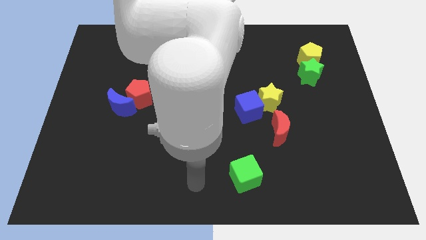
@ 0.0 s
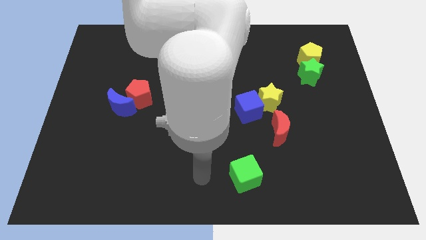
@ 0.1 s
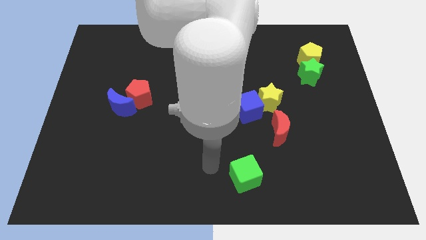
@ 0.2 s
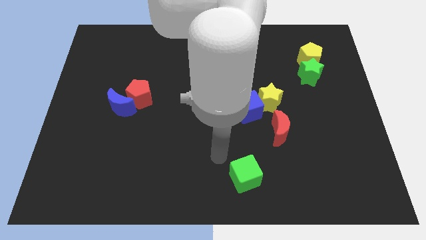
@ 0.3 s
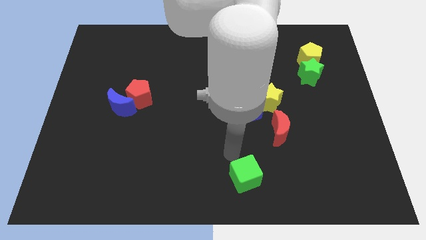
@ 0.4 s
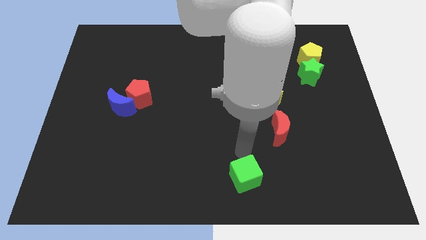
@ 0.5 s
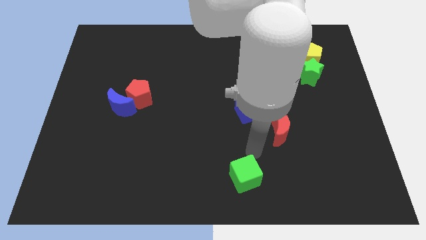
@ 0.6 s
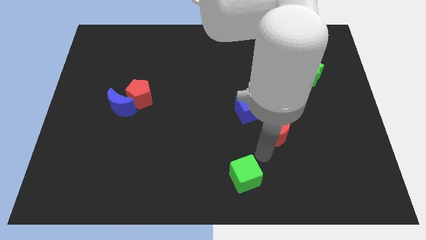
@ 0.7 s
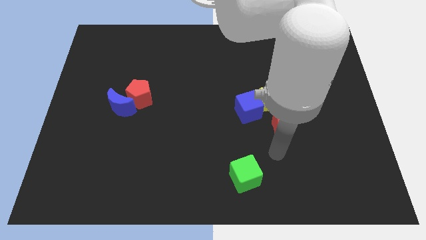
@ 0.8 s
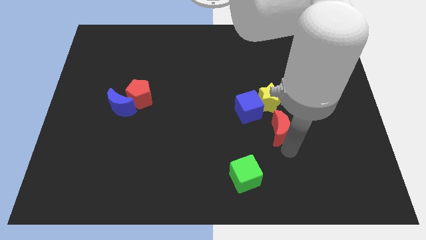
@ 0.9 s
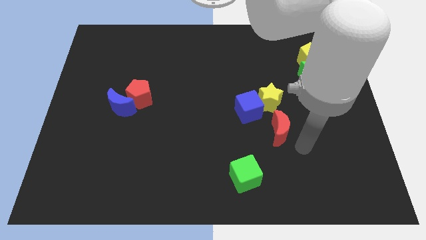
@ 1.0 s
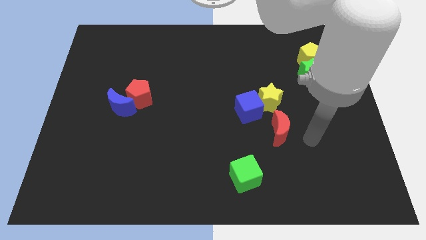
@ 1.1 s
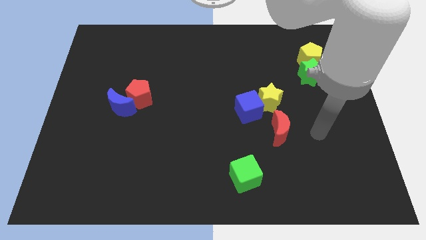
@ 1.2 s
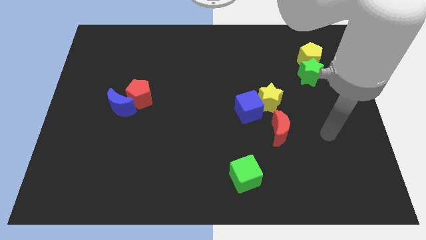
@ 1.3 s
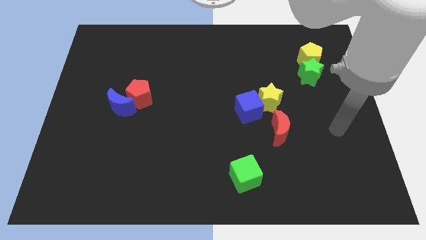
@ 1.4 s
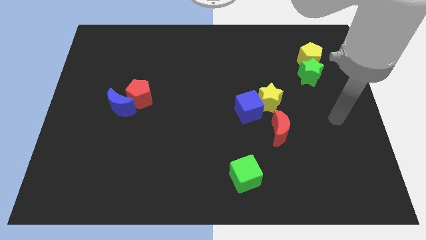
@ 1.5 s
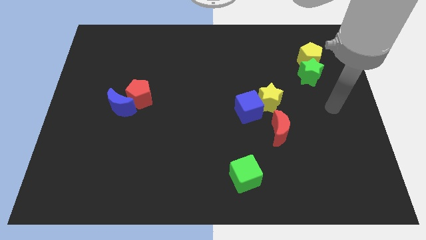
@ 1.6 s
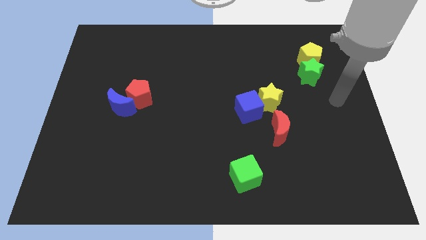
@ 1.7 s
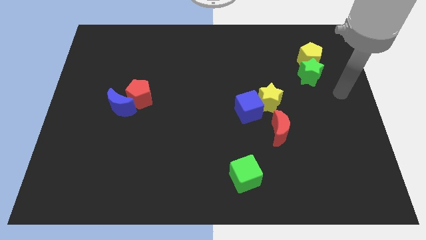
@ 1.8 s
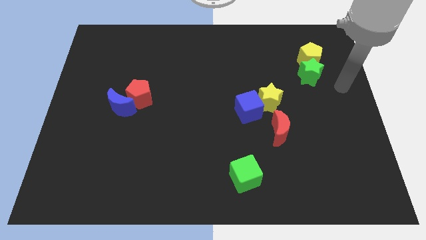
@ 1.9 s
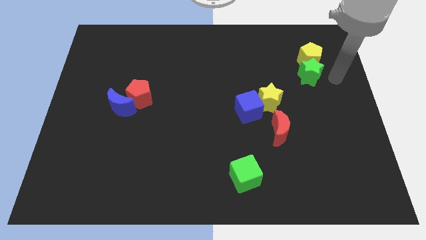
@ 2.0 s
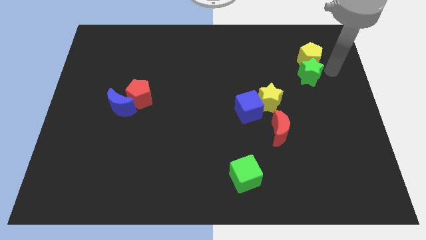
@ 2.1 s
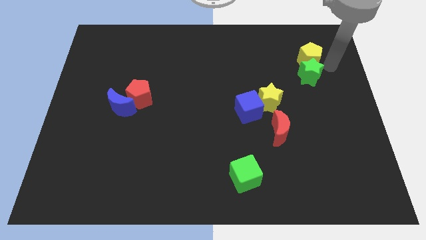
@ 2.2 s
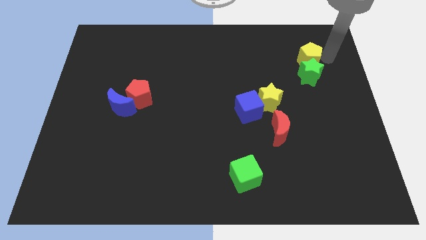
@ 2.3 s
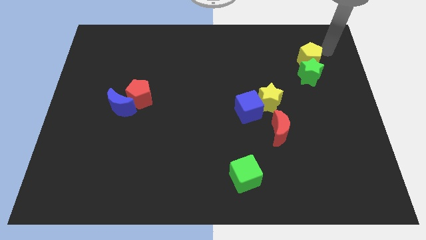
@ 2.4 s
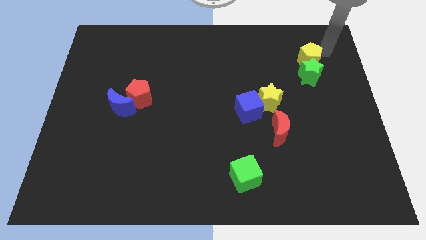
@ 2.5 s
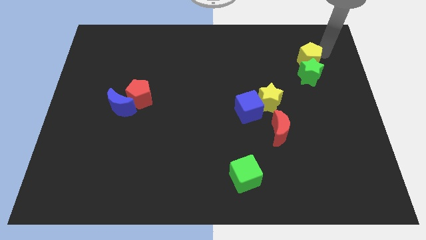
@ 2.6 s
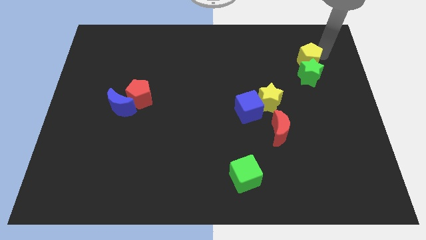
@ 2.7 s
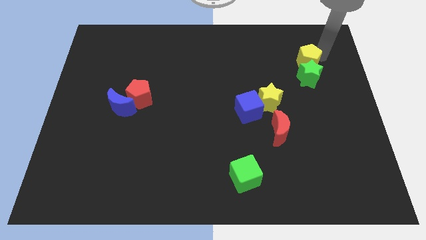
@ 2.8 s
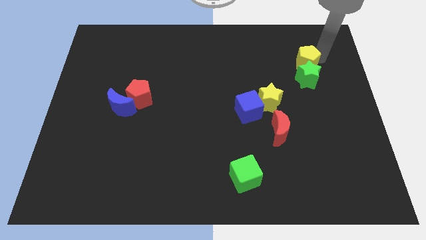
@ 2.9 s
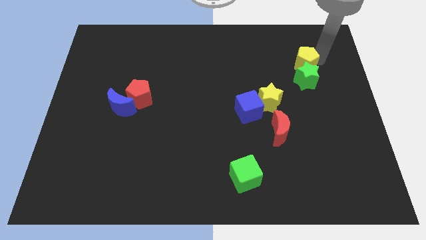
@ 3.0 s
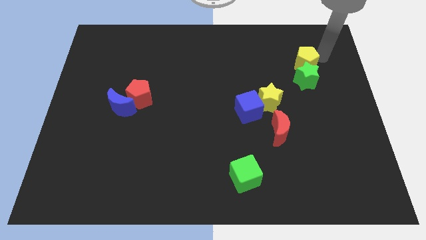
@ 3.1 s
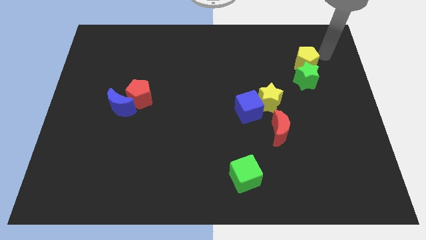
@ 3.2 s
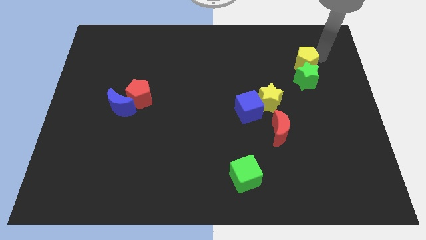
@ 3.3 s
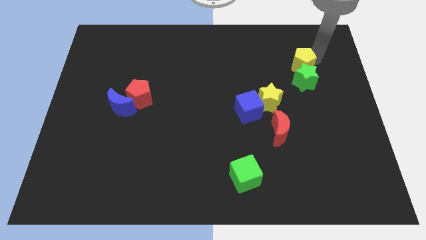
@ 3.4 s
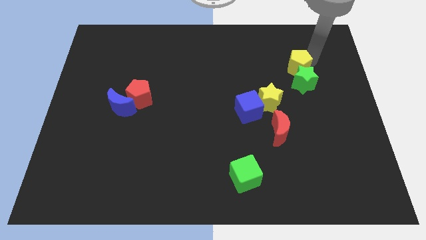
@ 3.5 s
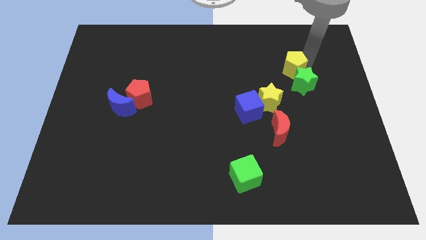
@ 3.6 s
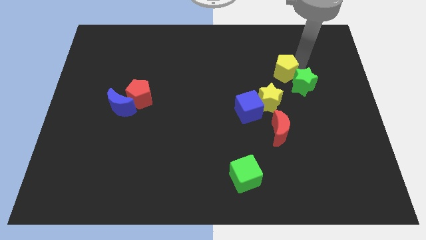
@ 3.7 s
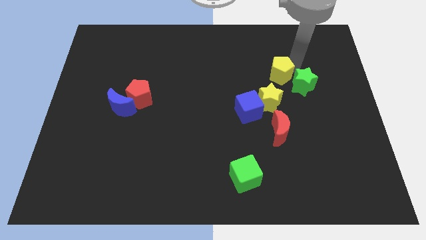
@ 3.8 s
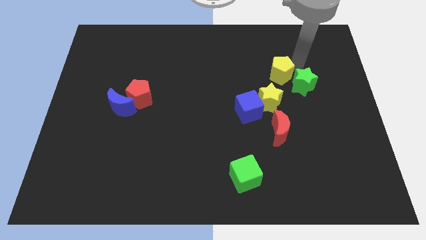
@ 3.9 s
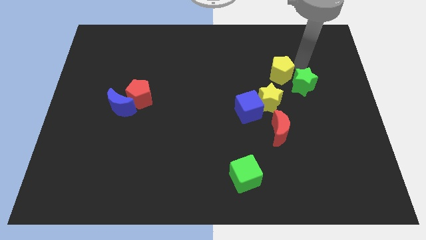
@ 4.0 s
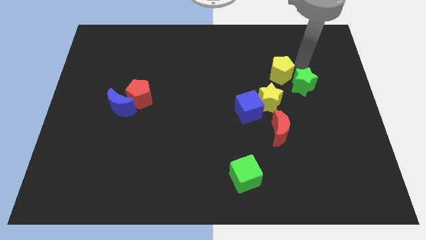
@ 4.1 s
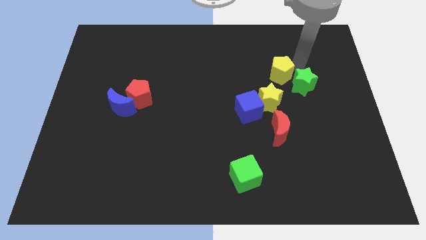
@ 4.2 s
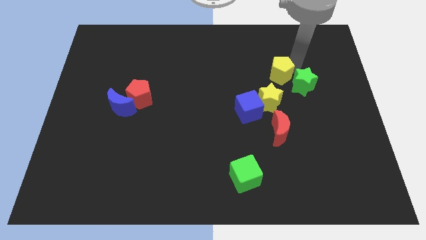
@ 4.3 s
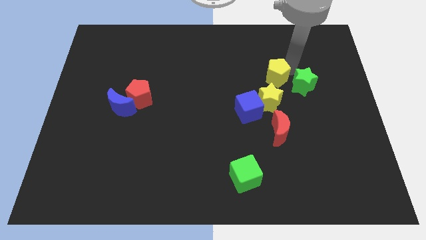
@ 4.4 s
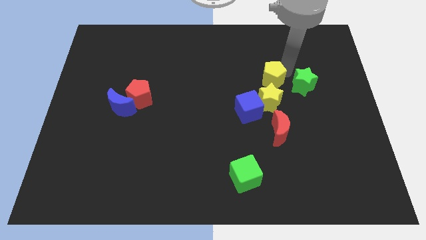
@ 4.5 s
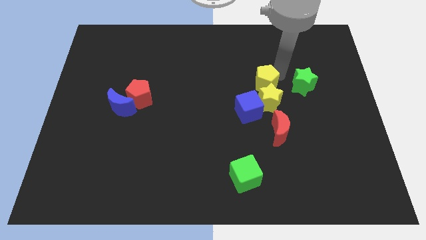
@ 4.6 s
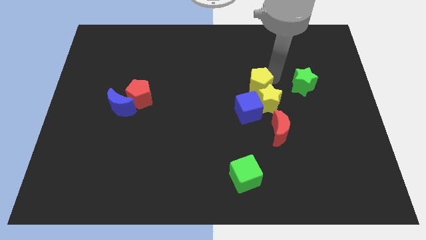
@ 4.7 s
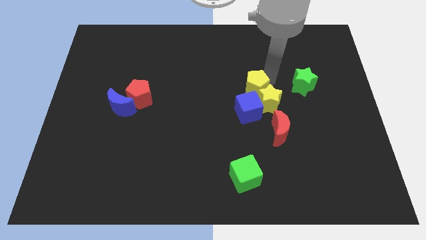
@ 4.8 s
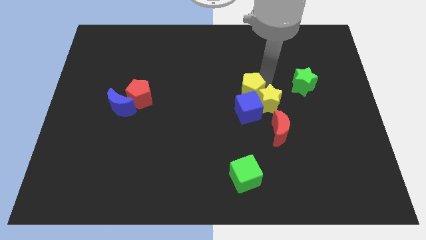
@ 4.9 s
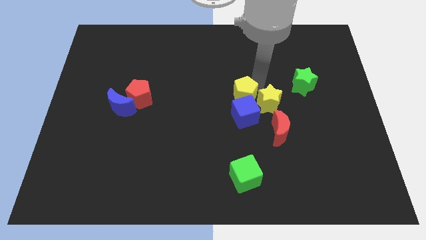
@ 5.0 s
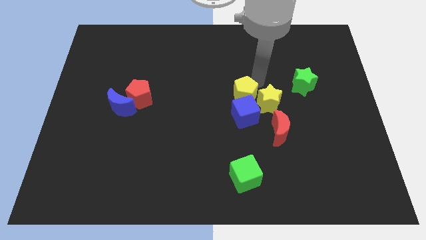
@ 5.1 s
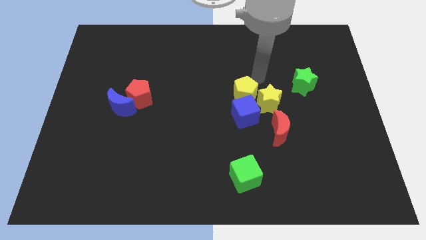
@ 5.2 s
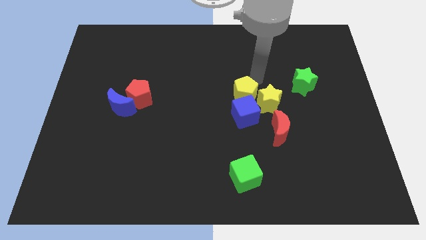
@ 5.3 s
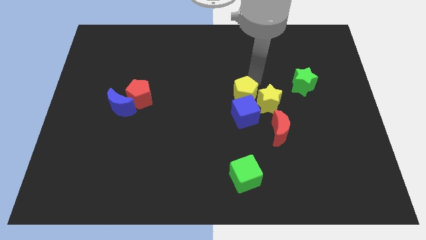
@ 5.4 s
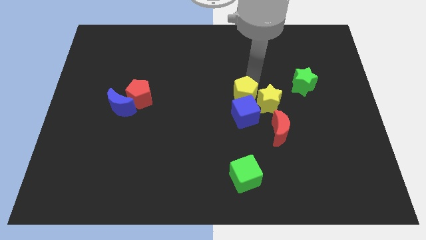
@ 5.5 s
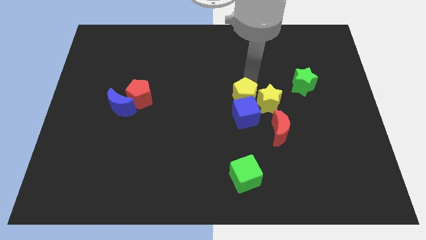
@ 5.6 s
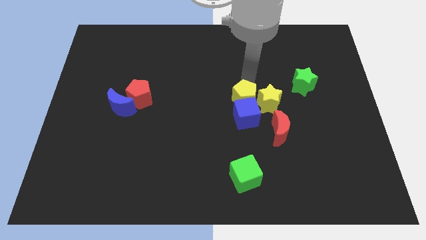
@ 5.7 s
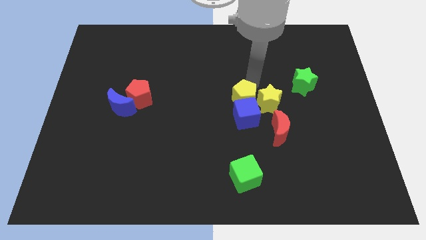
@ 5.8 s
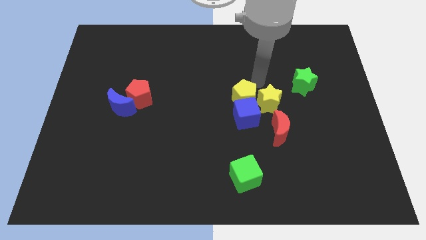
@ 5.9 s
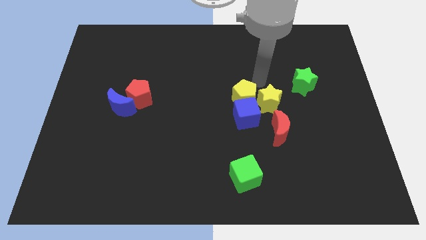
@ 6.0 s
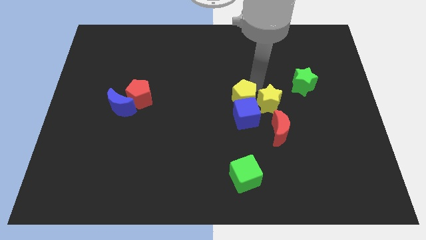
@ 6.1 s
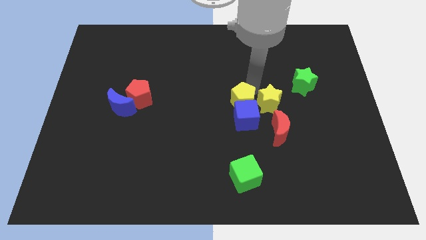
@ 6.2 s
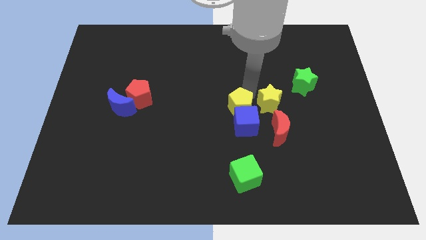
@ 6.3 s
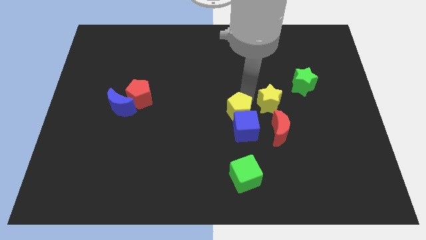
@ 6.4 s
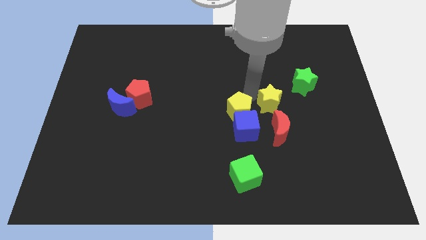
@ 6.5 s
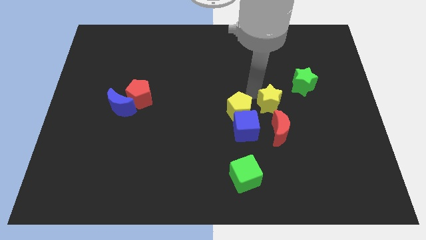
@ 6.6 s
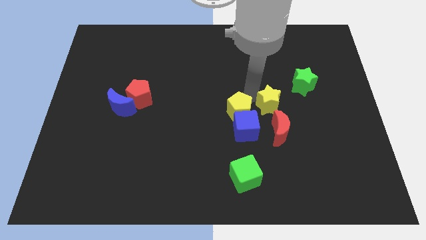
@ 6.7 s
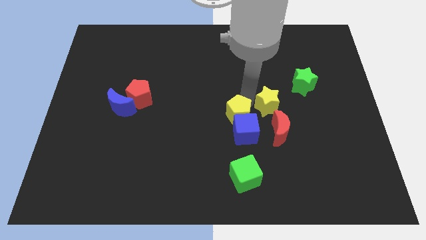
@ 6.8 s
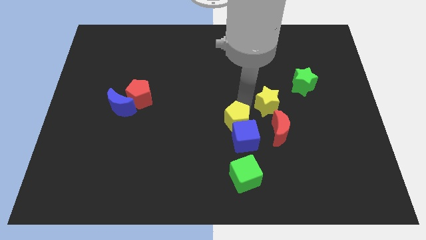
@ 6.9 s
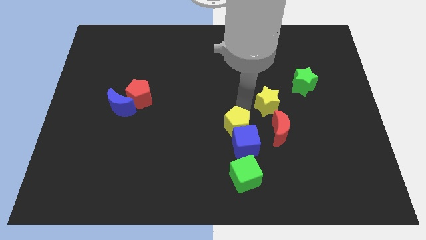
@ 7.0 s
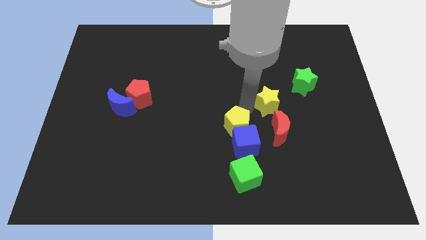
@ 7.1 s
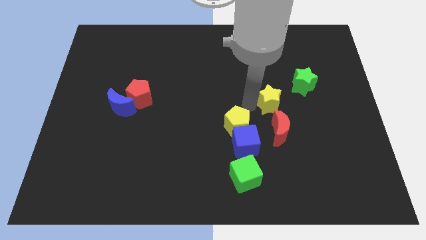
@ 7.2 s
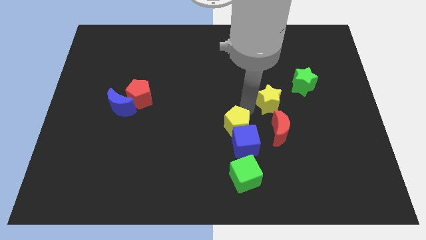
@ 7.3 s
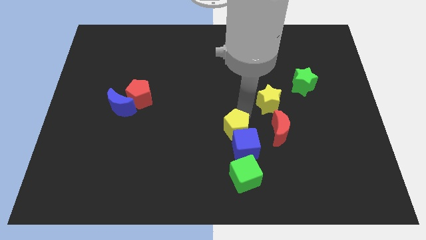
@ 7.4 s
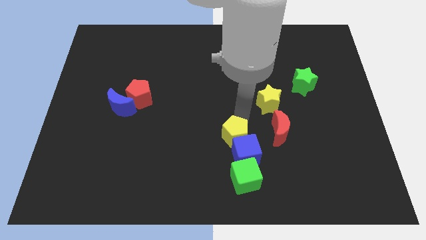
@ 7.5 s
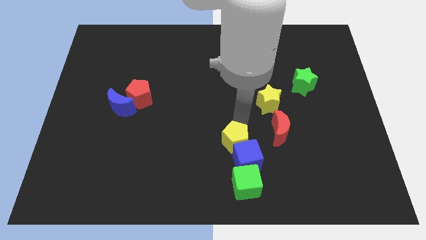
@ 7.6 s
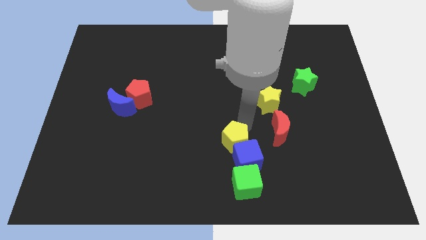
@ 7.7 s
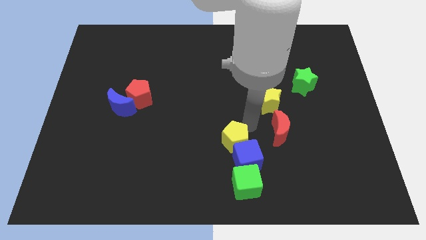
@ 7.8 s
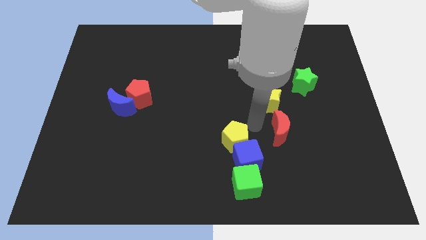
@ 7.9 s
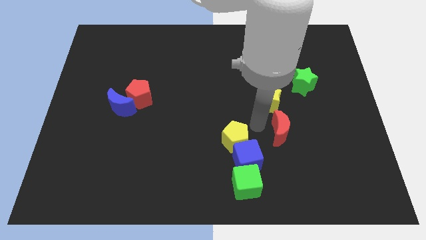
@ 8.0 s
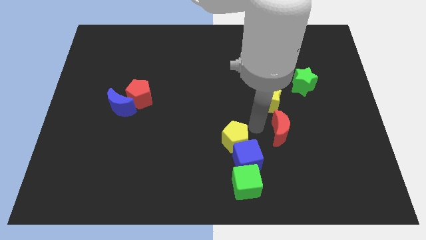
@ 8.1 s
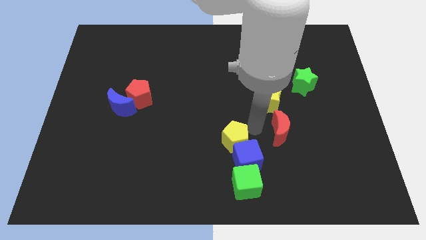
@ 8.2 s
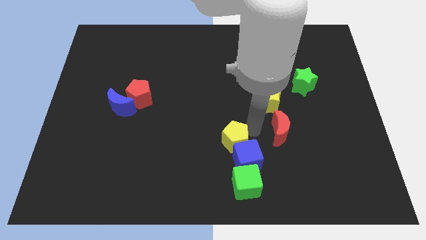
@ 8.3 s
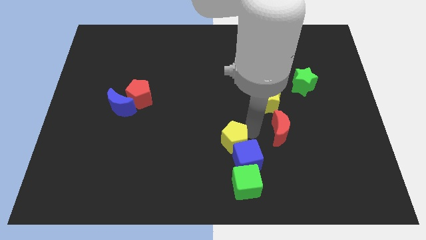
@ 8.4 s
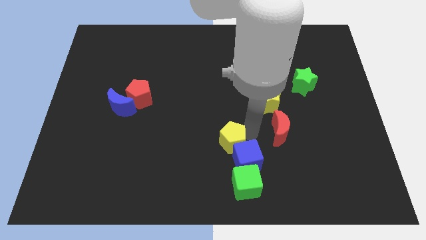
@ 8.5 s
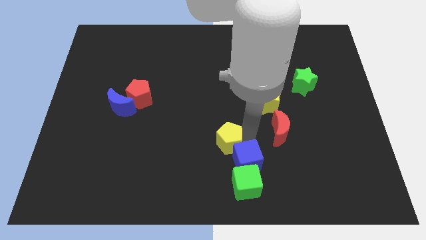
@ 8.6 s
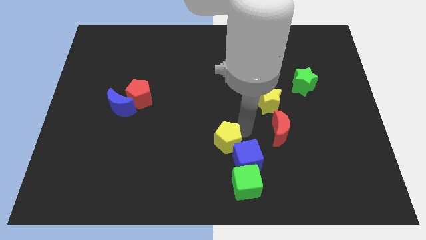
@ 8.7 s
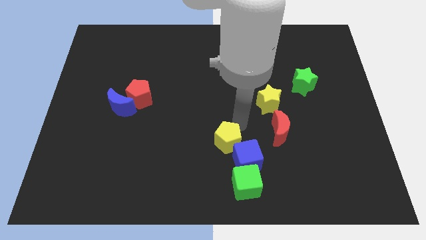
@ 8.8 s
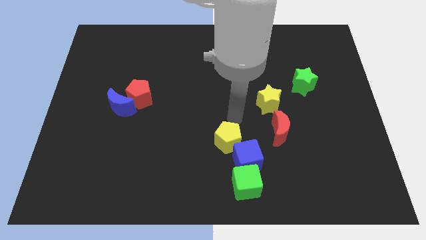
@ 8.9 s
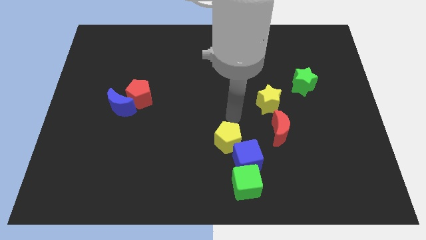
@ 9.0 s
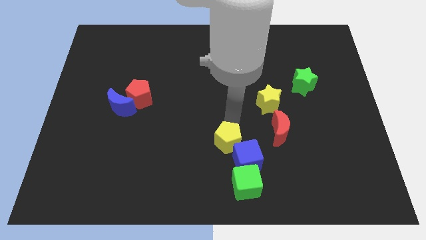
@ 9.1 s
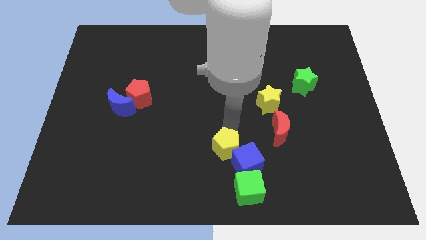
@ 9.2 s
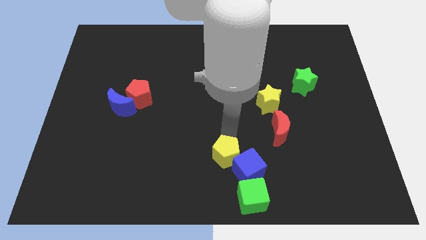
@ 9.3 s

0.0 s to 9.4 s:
move the yellow pentagon to the bottom
